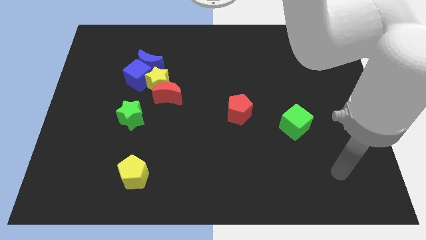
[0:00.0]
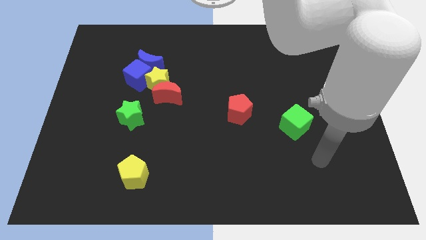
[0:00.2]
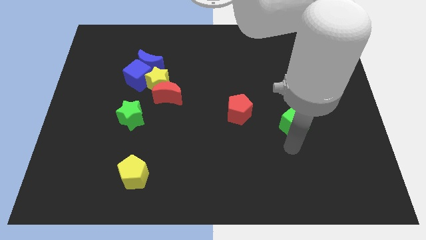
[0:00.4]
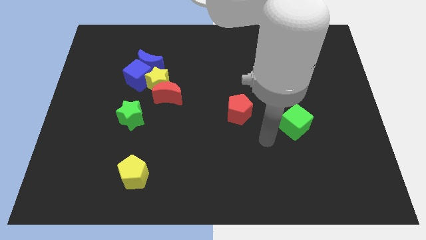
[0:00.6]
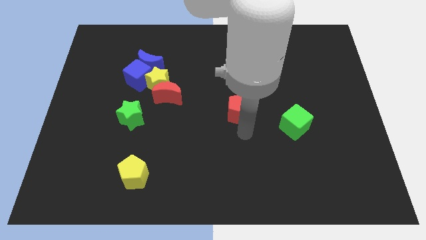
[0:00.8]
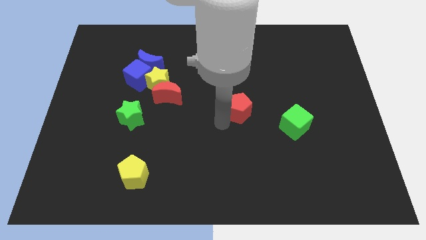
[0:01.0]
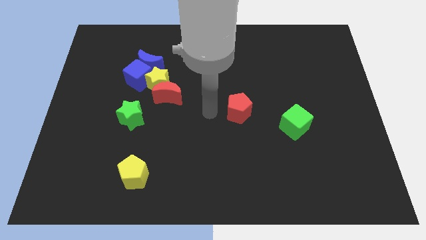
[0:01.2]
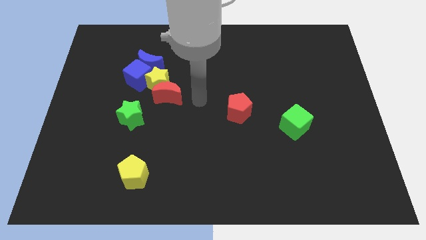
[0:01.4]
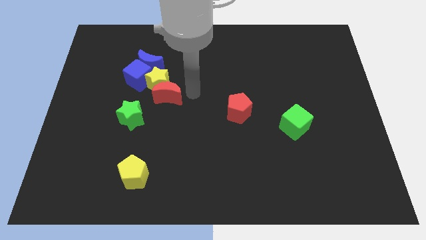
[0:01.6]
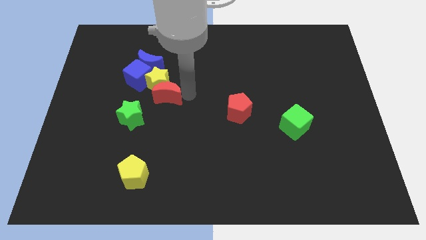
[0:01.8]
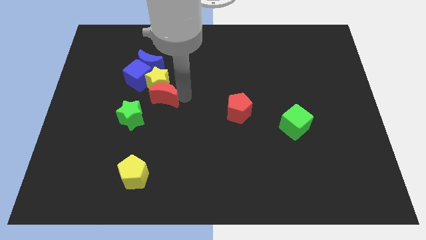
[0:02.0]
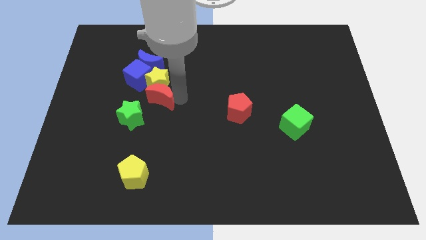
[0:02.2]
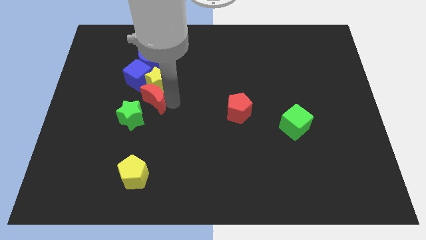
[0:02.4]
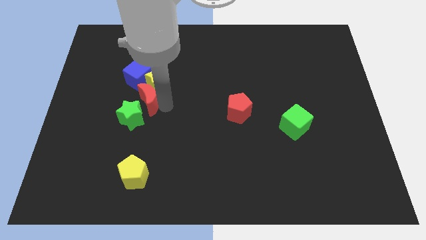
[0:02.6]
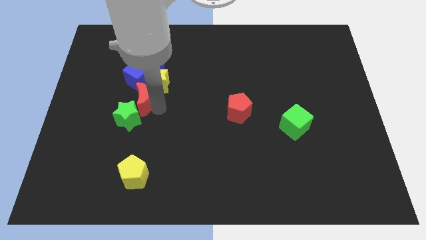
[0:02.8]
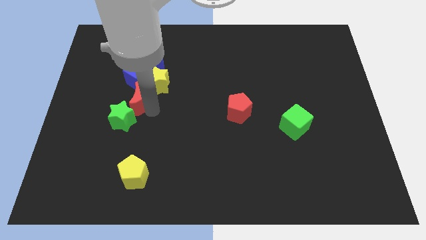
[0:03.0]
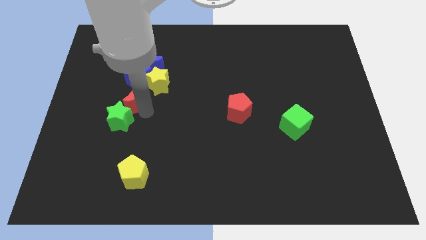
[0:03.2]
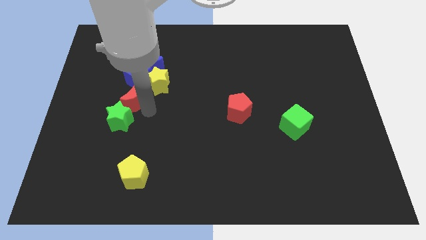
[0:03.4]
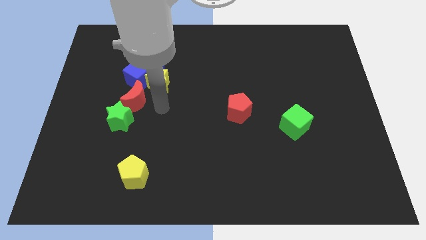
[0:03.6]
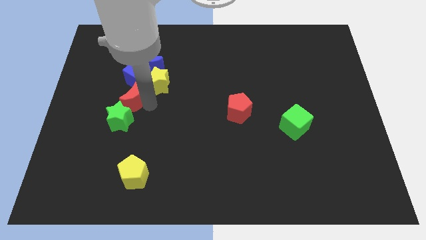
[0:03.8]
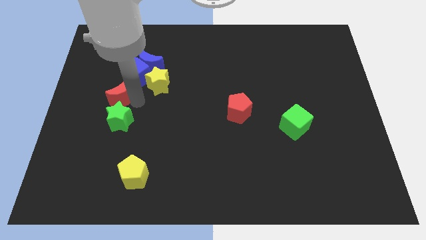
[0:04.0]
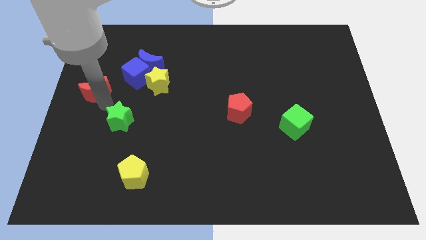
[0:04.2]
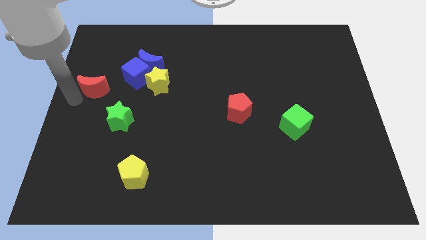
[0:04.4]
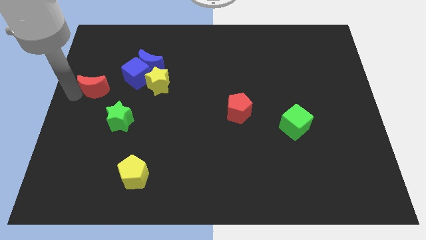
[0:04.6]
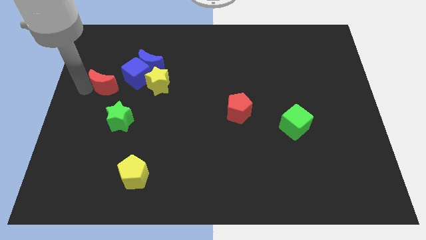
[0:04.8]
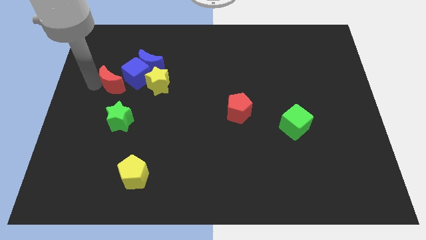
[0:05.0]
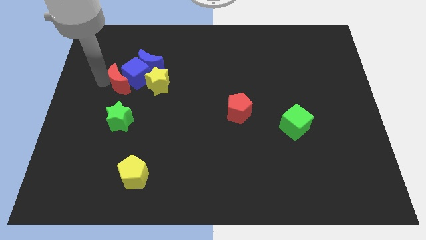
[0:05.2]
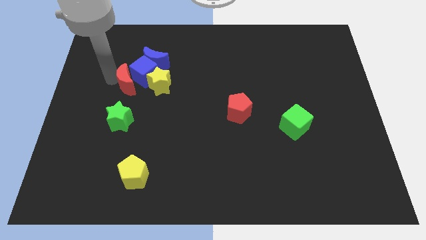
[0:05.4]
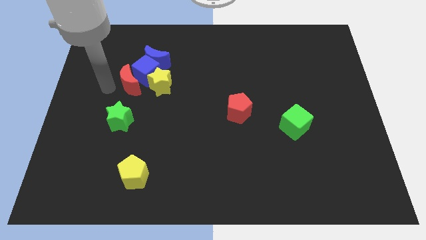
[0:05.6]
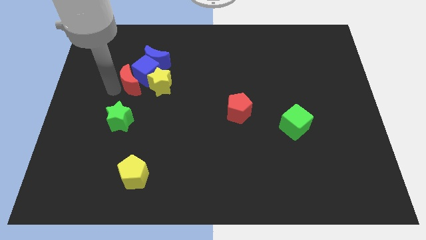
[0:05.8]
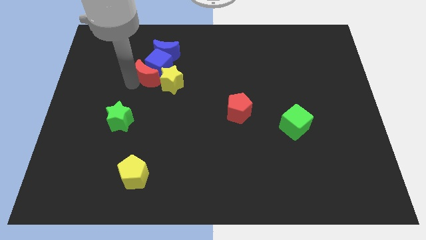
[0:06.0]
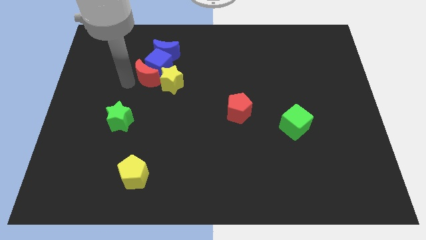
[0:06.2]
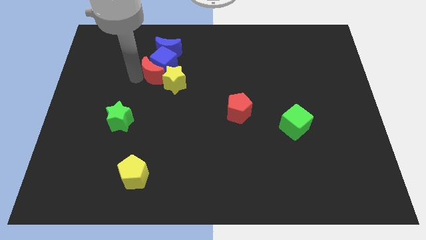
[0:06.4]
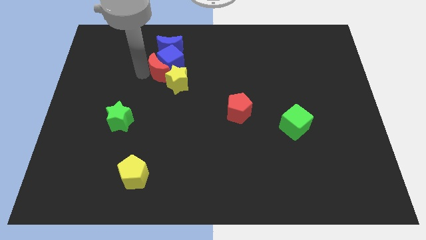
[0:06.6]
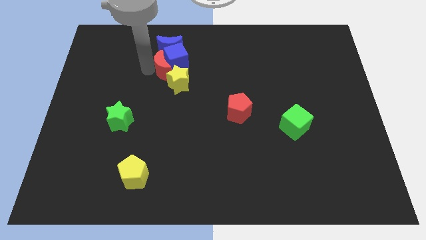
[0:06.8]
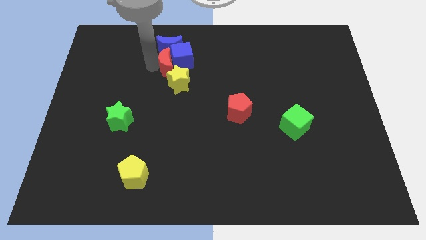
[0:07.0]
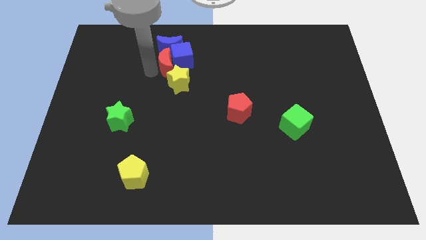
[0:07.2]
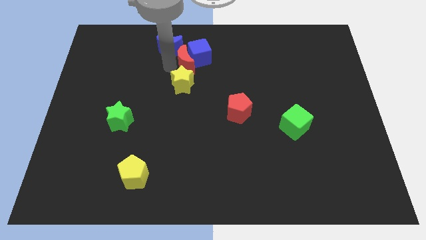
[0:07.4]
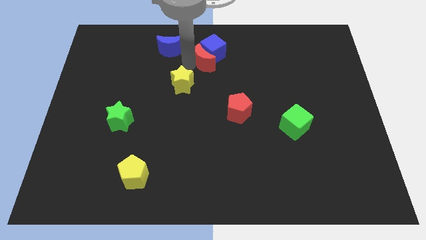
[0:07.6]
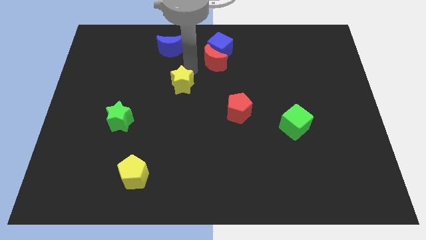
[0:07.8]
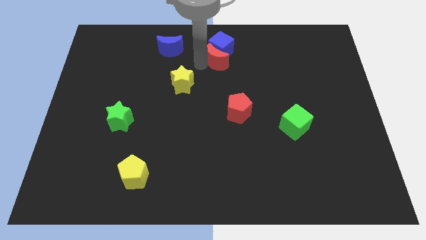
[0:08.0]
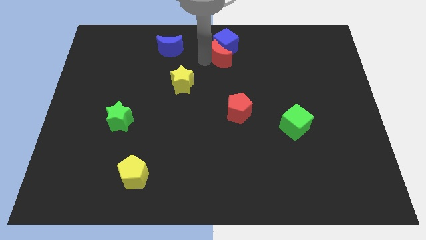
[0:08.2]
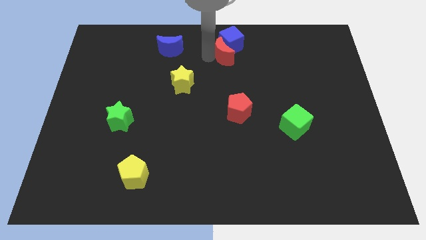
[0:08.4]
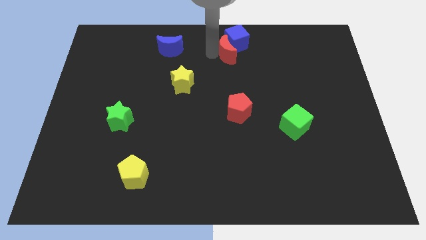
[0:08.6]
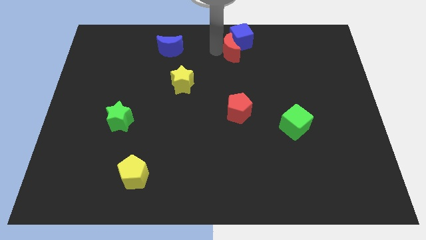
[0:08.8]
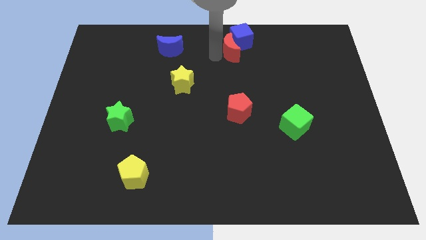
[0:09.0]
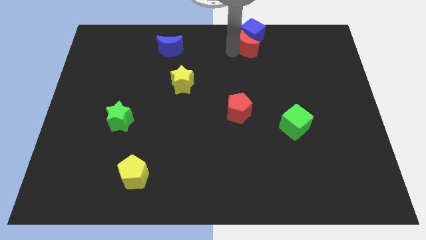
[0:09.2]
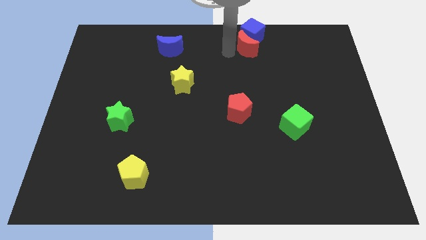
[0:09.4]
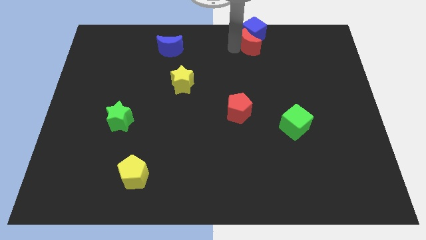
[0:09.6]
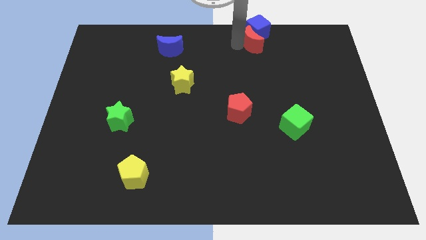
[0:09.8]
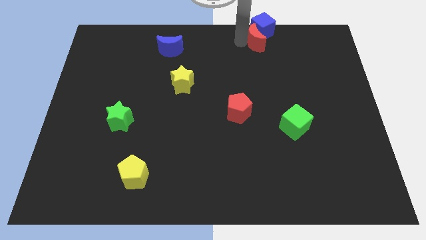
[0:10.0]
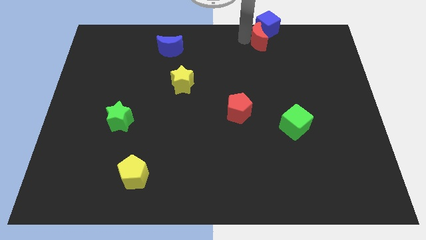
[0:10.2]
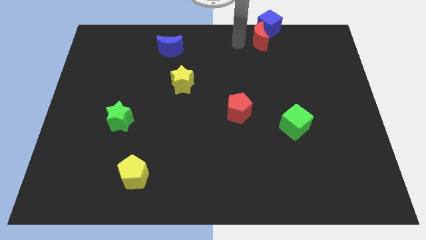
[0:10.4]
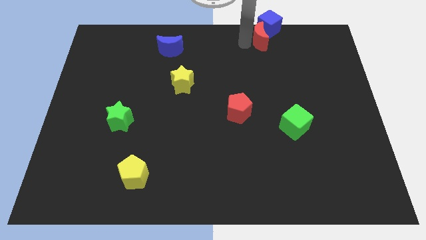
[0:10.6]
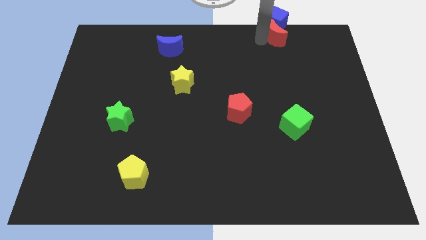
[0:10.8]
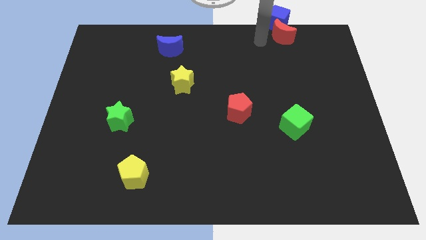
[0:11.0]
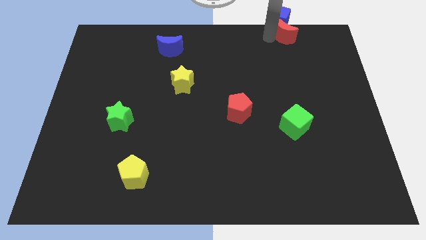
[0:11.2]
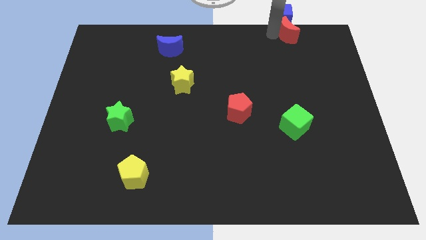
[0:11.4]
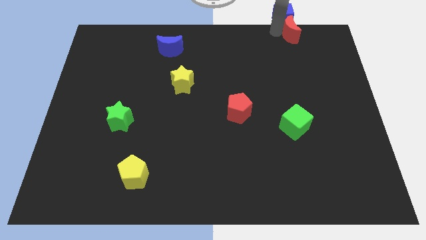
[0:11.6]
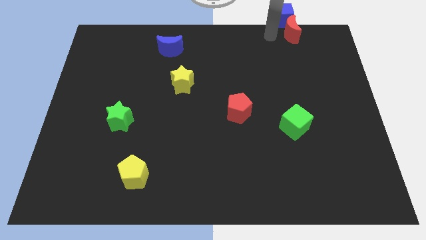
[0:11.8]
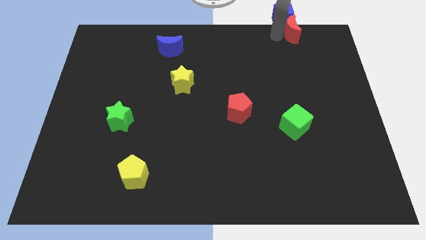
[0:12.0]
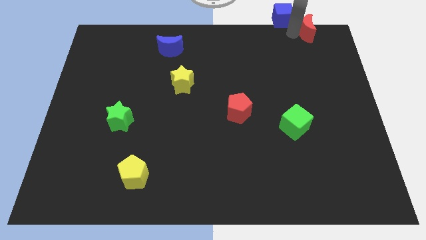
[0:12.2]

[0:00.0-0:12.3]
push the red moon to the top right

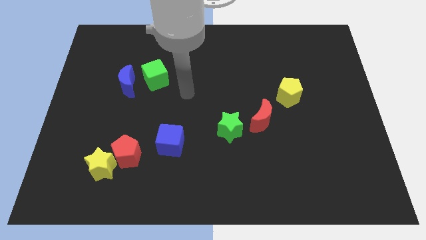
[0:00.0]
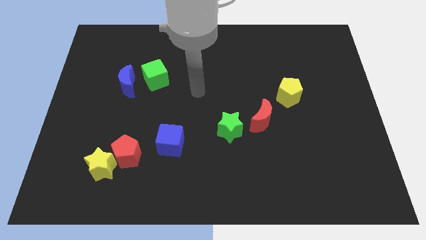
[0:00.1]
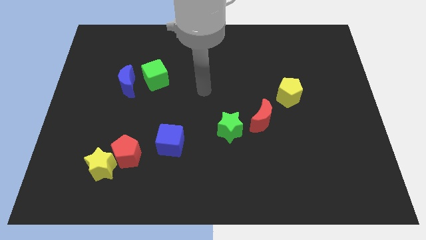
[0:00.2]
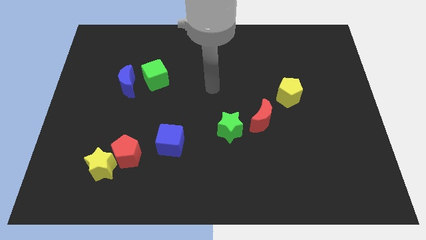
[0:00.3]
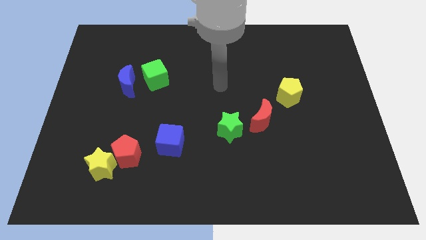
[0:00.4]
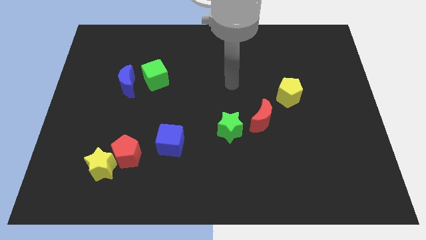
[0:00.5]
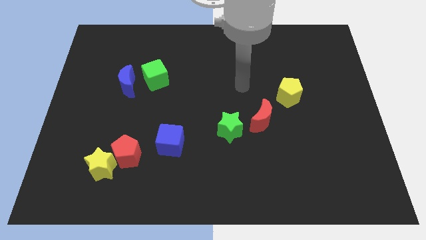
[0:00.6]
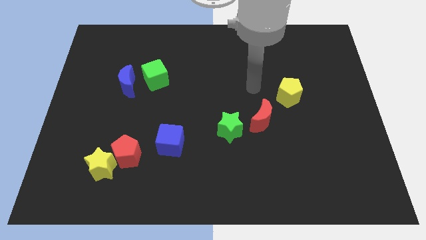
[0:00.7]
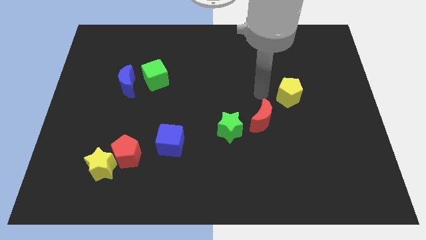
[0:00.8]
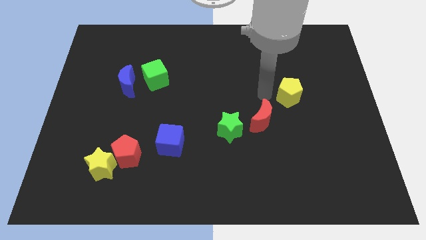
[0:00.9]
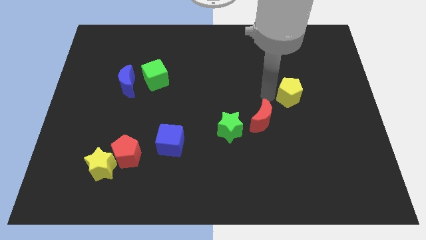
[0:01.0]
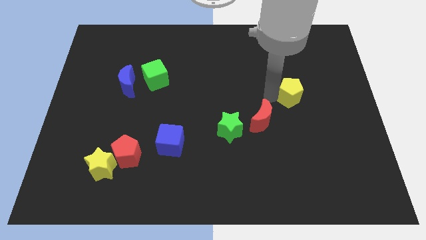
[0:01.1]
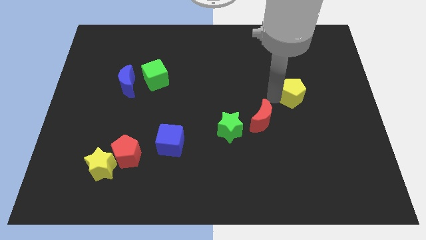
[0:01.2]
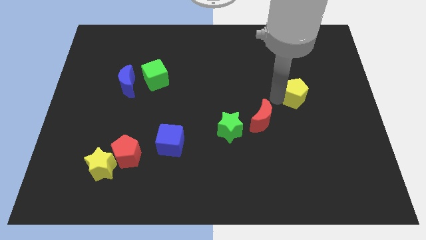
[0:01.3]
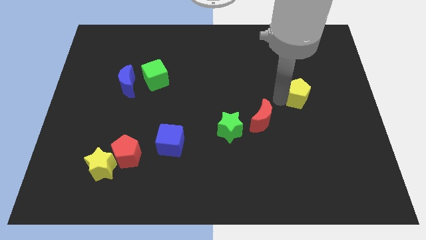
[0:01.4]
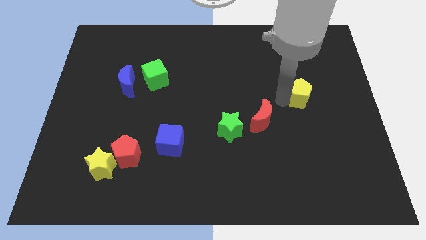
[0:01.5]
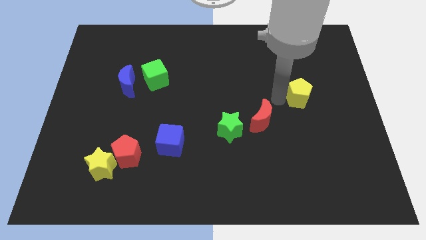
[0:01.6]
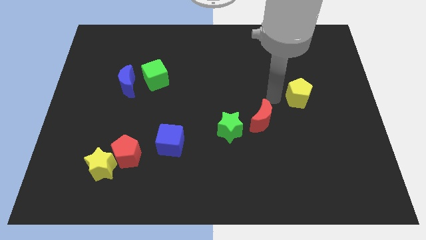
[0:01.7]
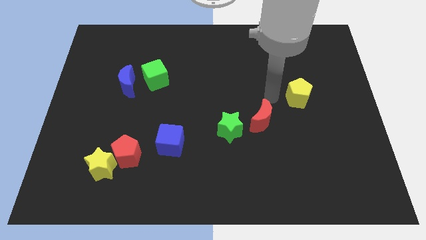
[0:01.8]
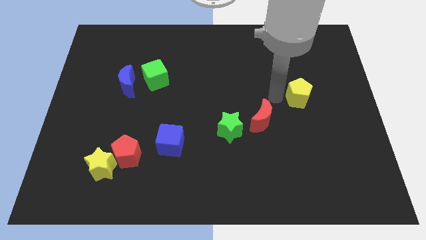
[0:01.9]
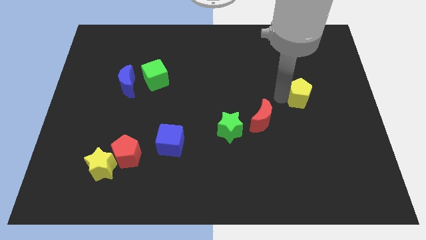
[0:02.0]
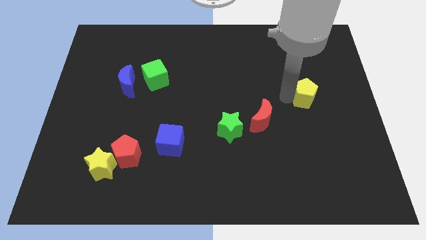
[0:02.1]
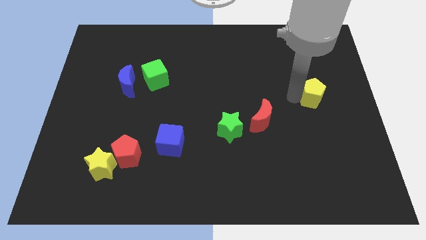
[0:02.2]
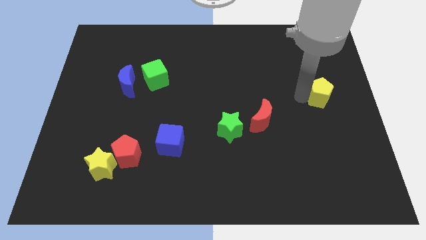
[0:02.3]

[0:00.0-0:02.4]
slide the yellow pentagon to the right side
